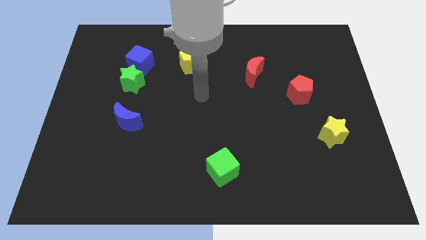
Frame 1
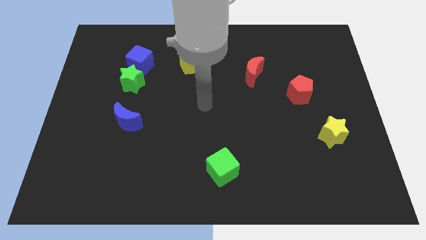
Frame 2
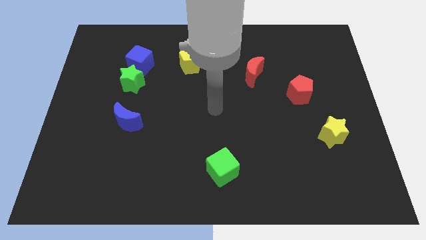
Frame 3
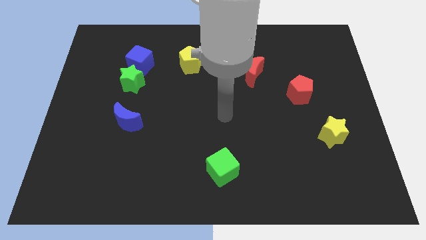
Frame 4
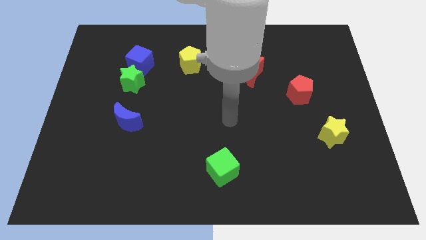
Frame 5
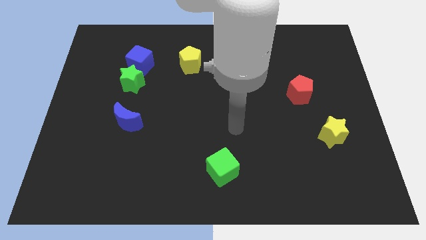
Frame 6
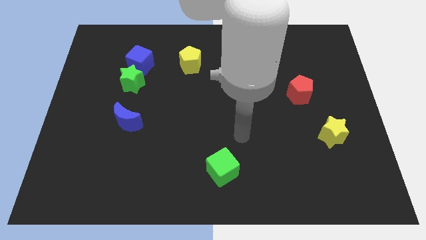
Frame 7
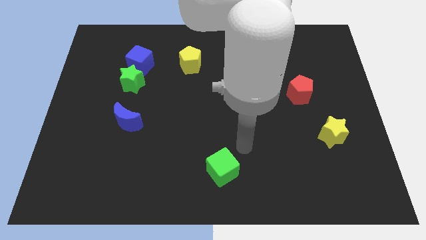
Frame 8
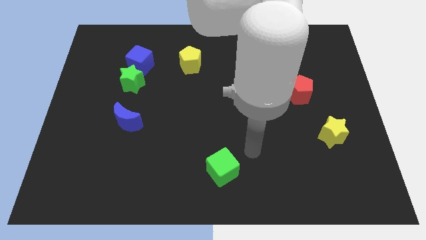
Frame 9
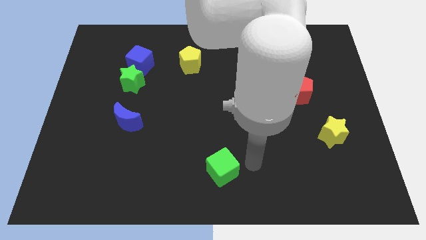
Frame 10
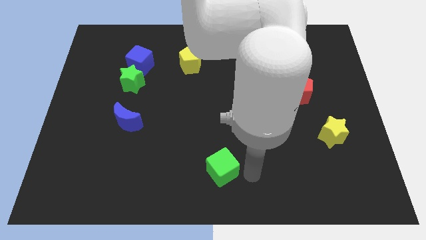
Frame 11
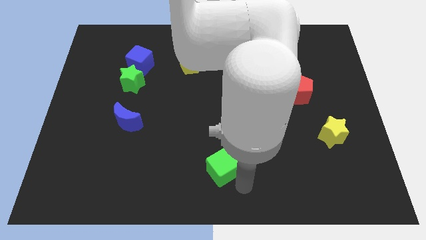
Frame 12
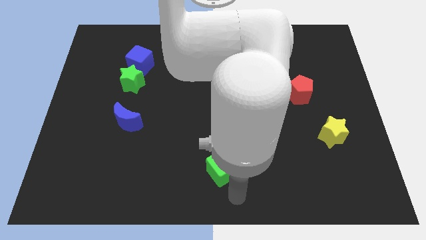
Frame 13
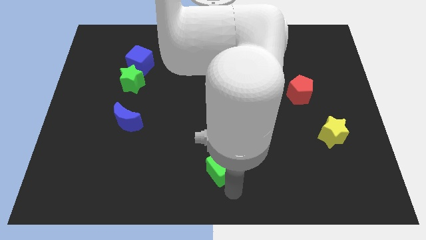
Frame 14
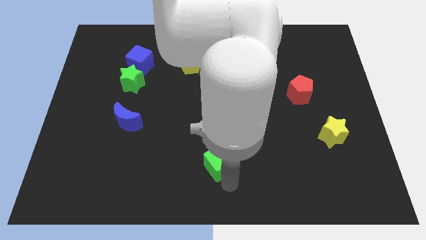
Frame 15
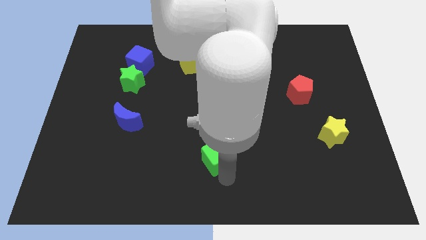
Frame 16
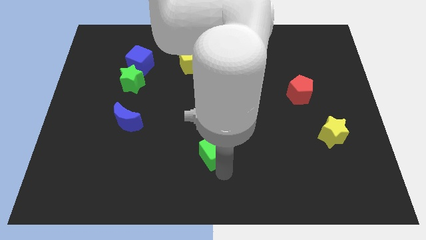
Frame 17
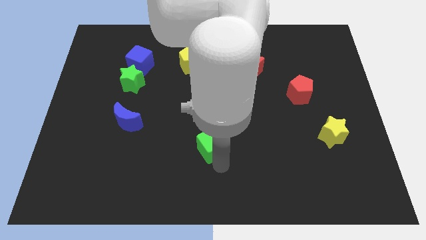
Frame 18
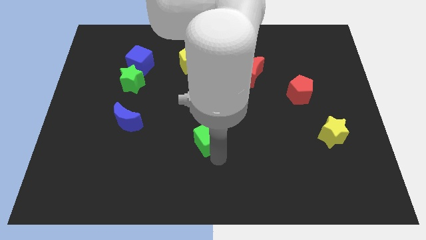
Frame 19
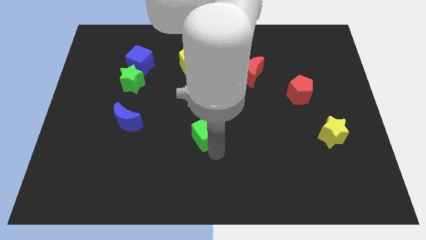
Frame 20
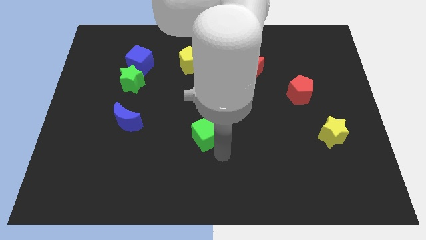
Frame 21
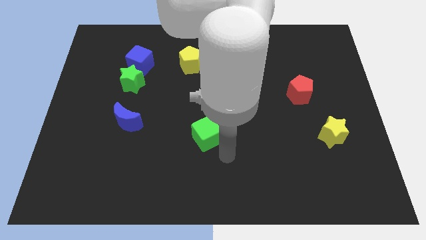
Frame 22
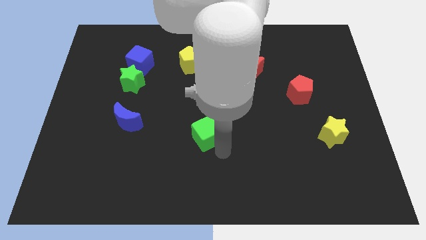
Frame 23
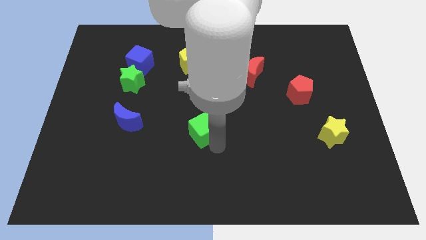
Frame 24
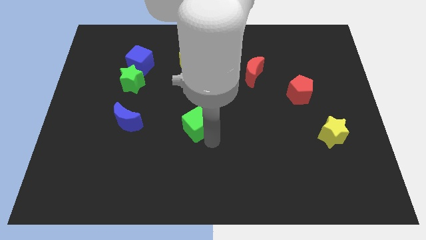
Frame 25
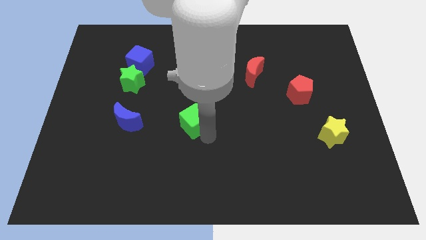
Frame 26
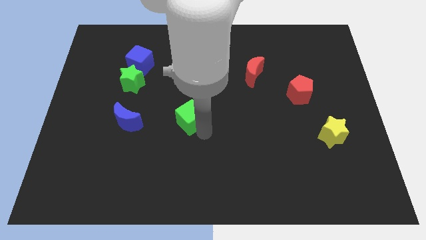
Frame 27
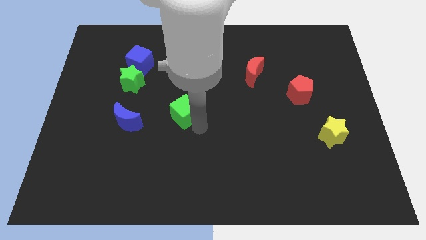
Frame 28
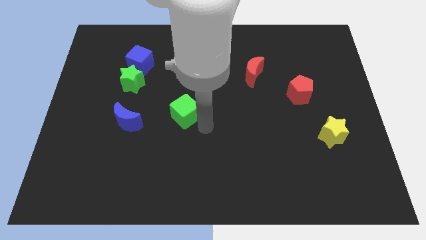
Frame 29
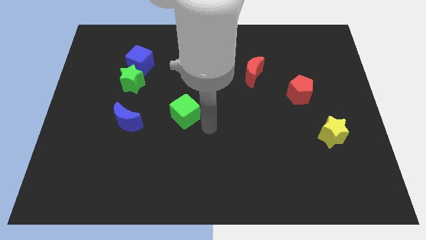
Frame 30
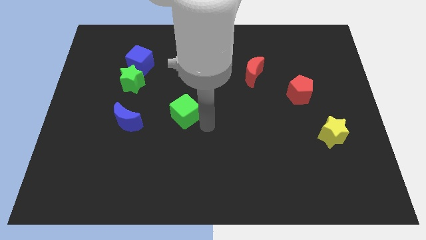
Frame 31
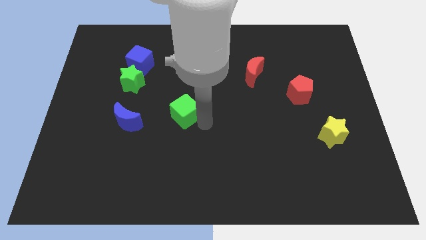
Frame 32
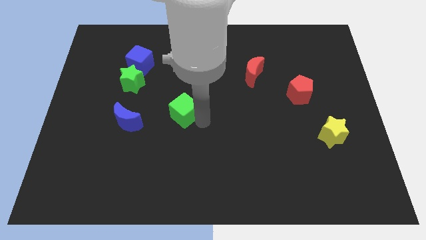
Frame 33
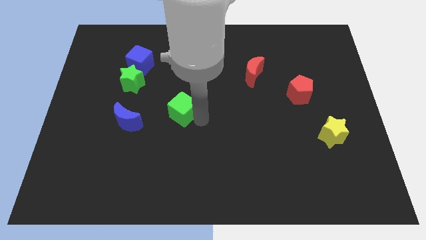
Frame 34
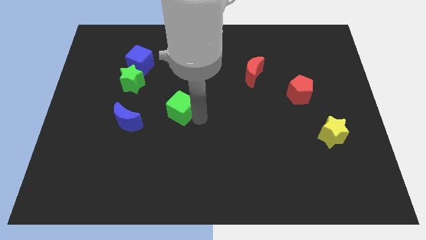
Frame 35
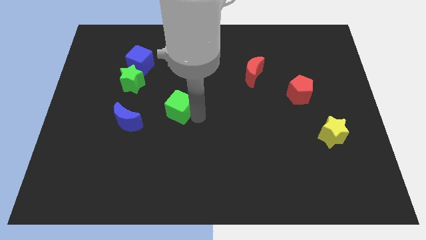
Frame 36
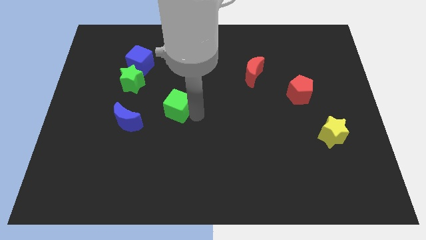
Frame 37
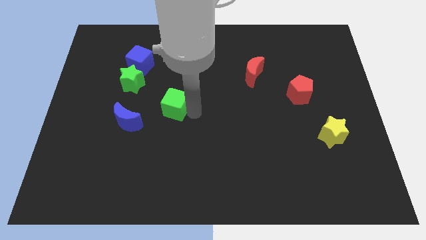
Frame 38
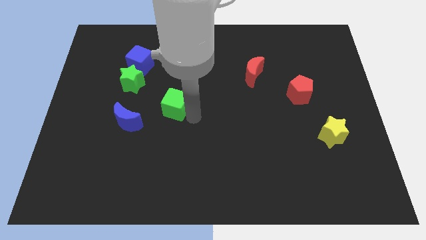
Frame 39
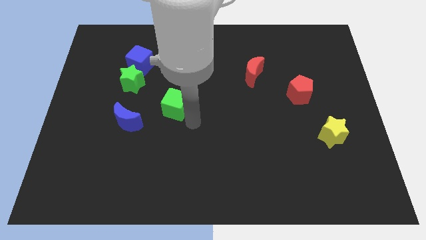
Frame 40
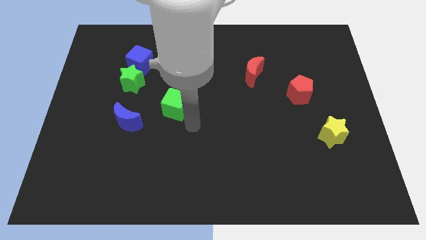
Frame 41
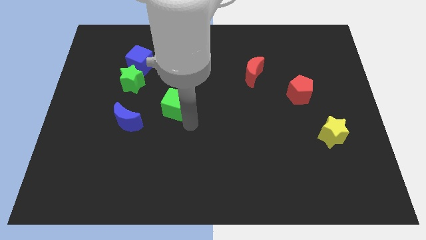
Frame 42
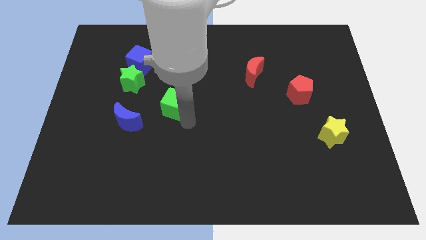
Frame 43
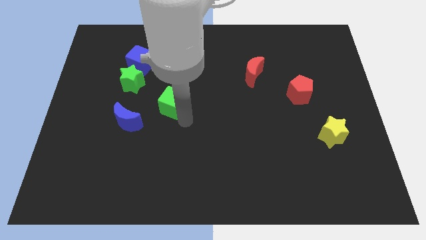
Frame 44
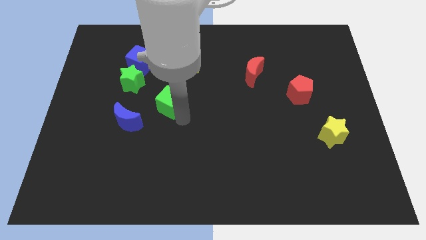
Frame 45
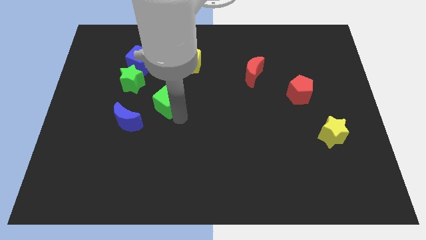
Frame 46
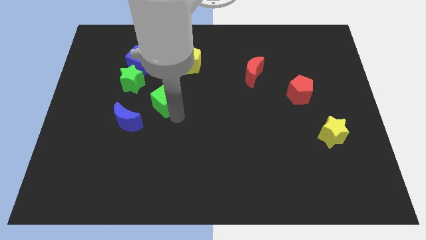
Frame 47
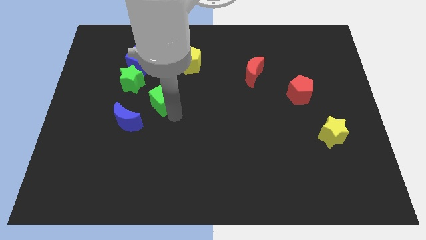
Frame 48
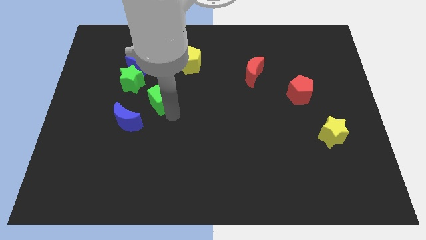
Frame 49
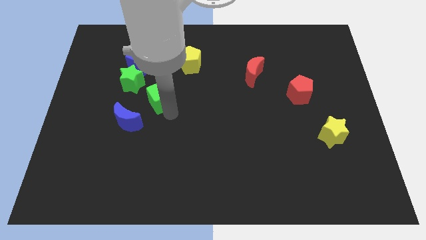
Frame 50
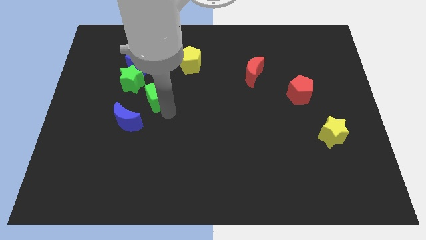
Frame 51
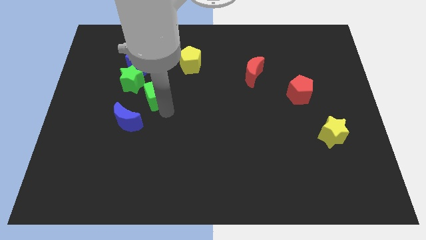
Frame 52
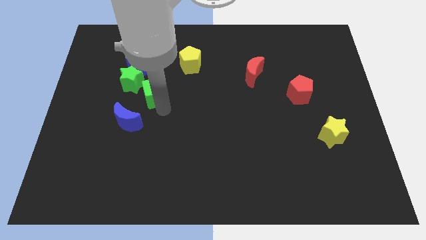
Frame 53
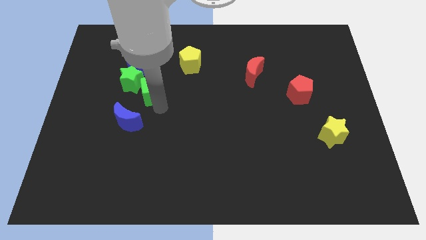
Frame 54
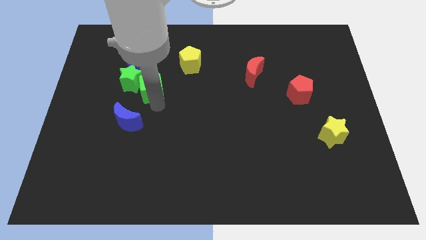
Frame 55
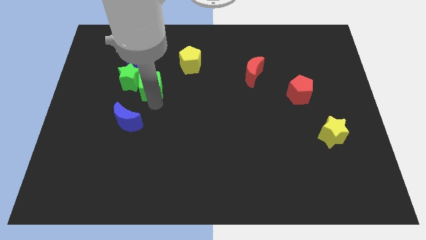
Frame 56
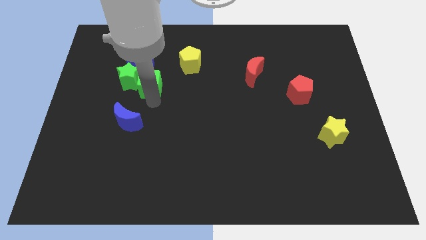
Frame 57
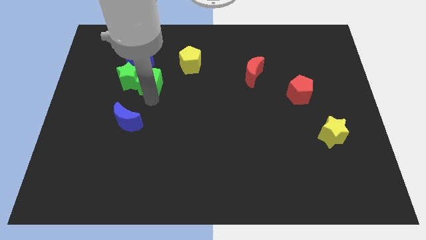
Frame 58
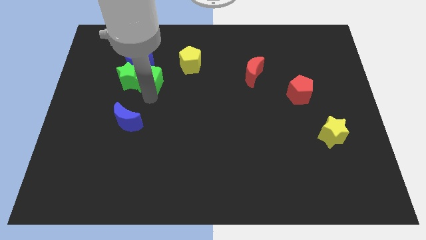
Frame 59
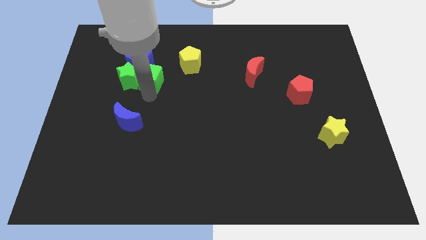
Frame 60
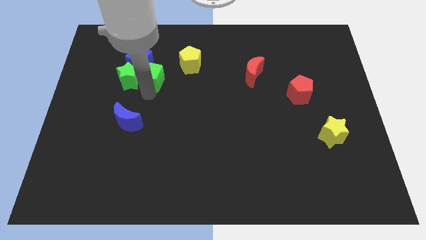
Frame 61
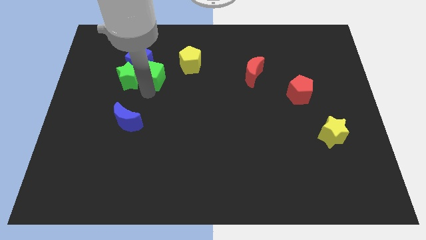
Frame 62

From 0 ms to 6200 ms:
push the green cube next to the blue cube

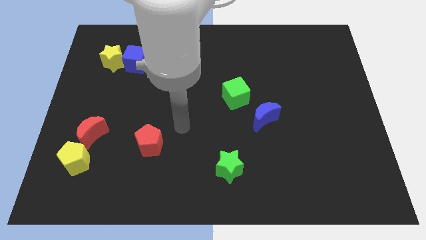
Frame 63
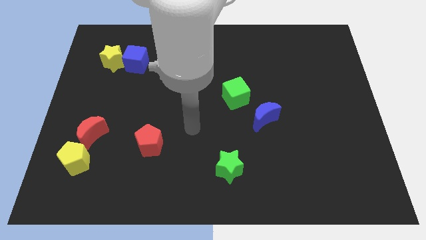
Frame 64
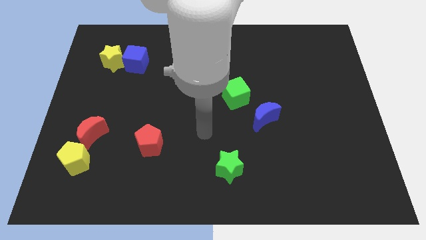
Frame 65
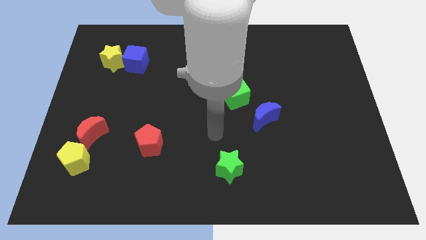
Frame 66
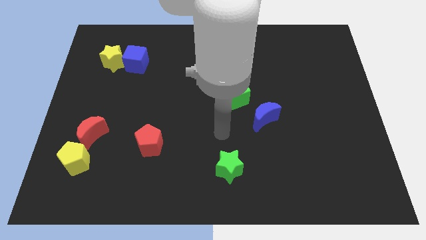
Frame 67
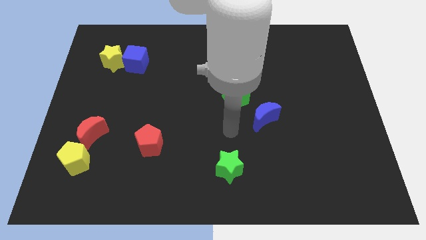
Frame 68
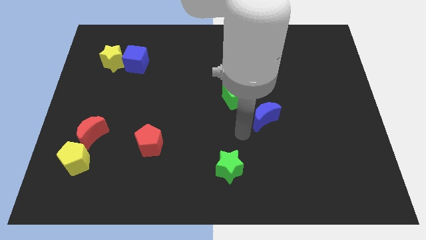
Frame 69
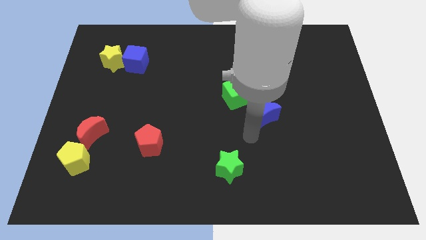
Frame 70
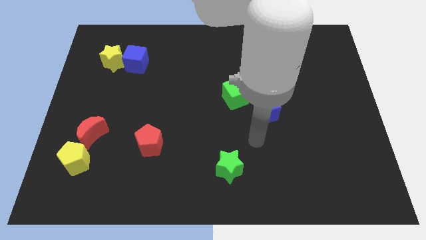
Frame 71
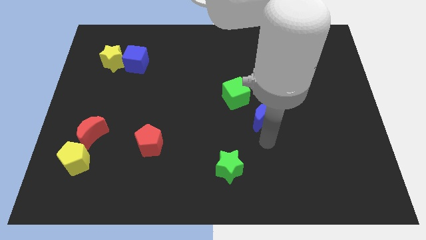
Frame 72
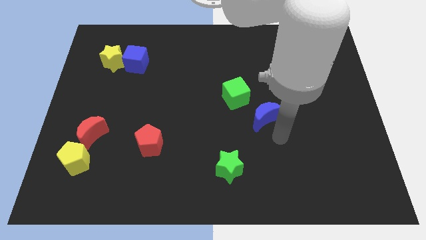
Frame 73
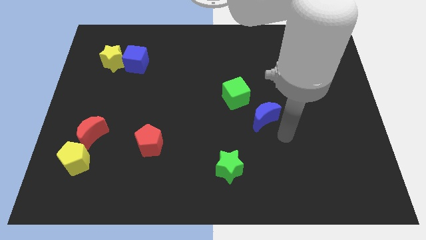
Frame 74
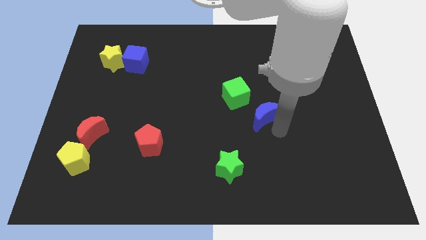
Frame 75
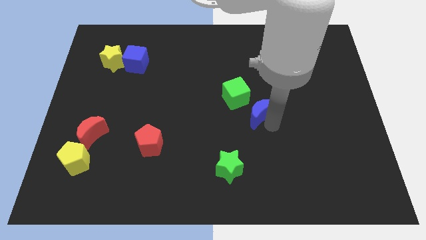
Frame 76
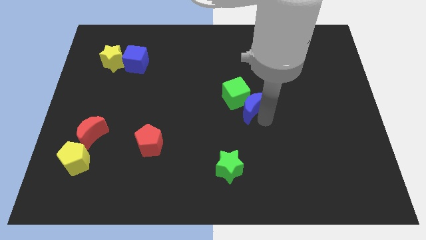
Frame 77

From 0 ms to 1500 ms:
put the blue moon close to the green cube
